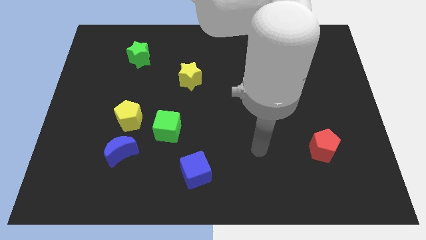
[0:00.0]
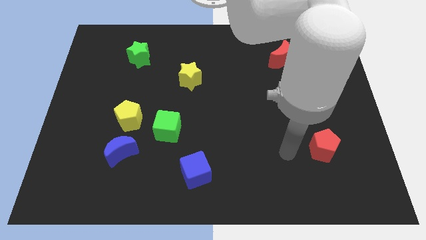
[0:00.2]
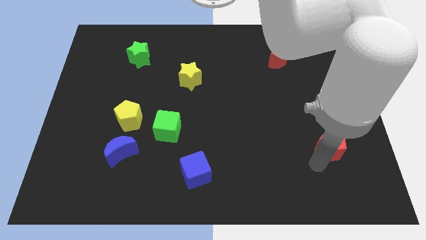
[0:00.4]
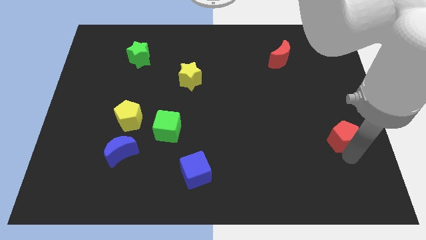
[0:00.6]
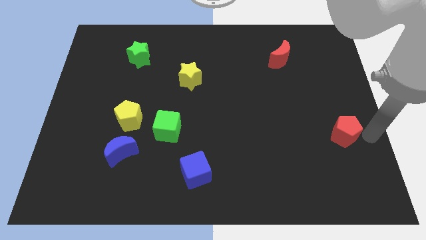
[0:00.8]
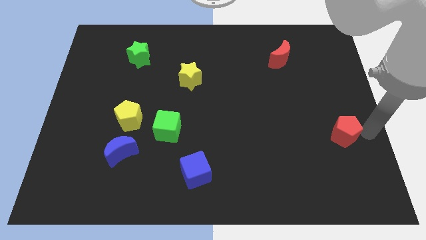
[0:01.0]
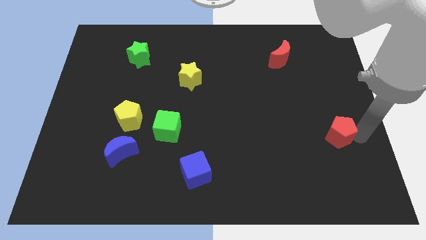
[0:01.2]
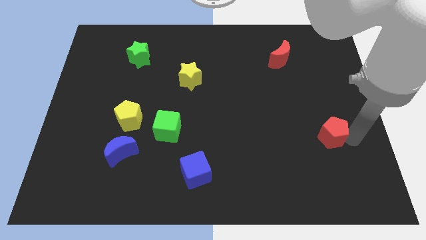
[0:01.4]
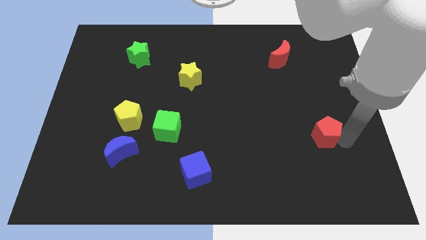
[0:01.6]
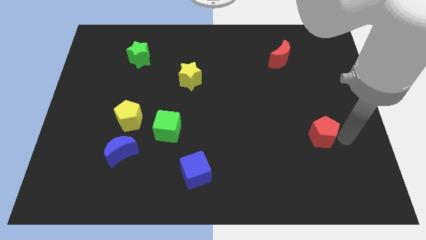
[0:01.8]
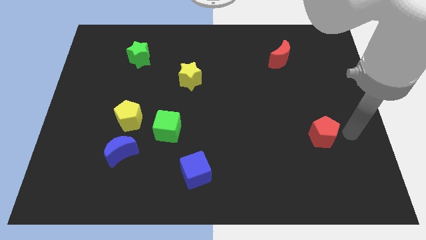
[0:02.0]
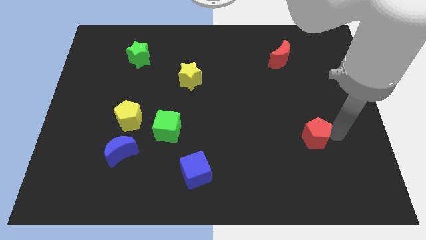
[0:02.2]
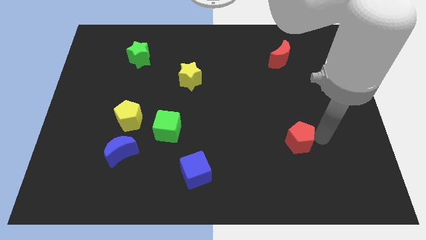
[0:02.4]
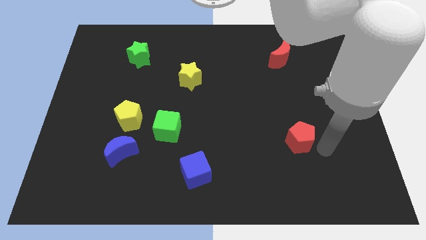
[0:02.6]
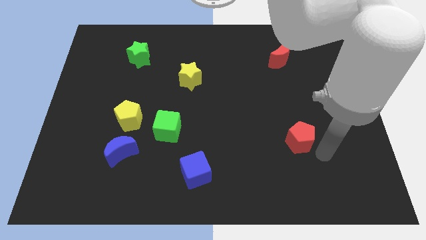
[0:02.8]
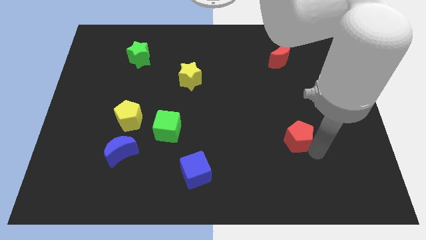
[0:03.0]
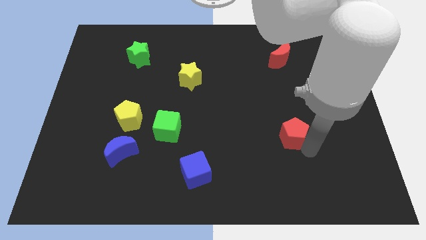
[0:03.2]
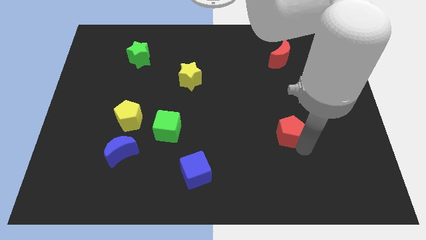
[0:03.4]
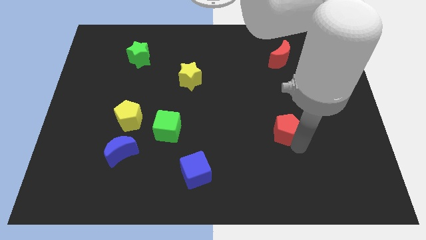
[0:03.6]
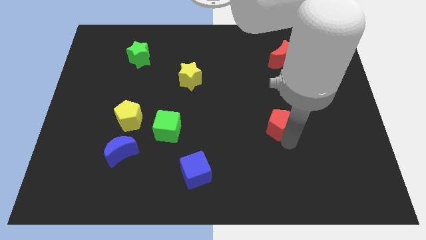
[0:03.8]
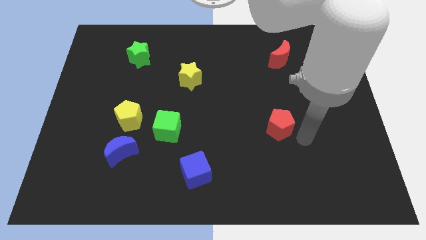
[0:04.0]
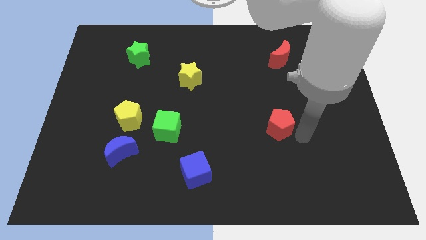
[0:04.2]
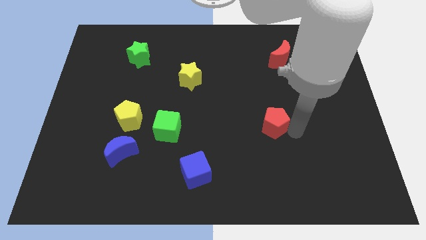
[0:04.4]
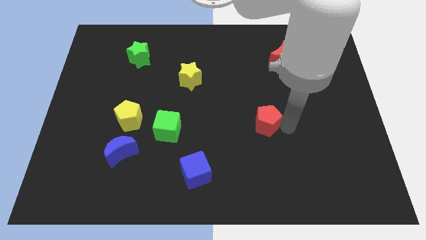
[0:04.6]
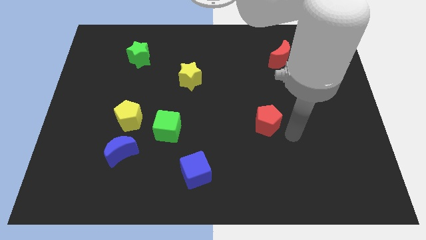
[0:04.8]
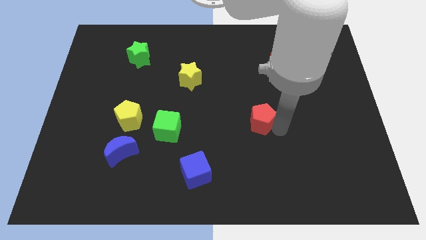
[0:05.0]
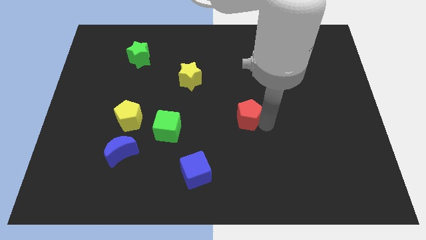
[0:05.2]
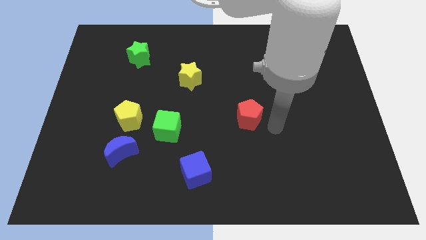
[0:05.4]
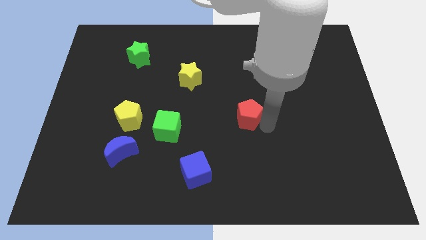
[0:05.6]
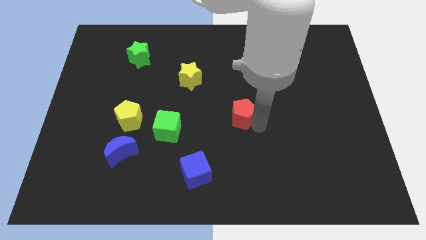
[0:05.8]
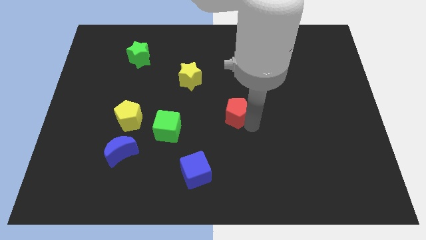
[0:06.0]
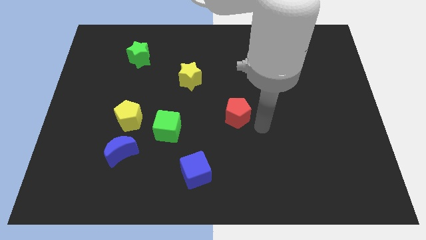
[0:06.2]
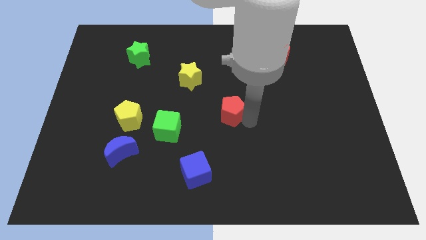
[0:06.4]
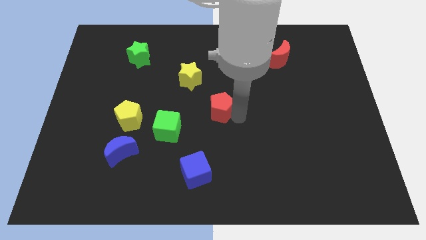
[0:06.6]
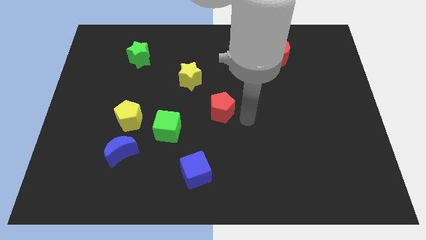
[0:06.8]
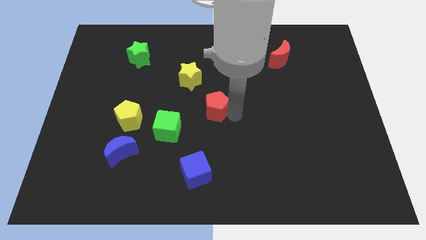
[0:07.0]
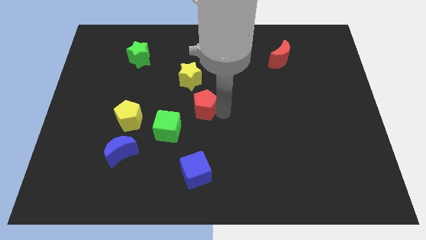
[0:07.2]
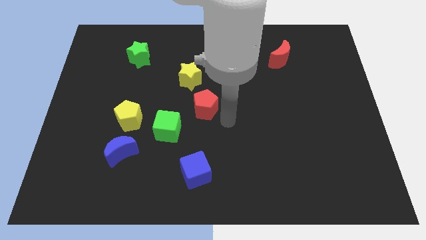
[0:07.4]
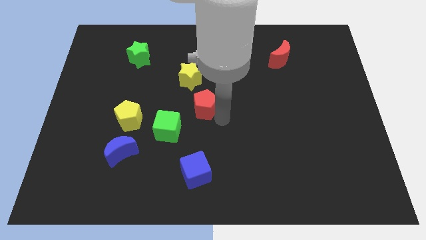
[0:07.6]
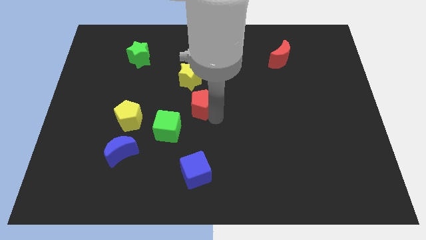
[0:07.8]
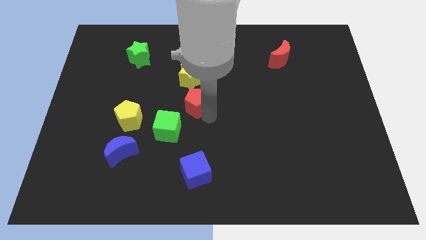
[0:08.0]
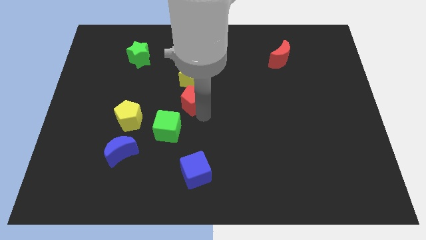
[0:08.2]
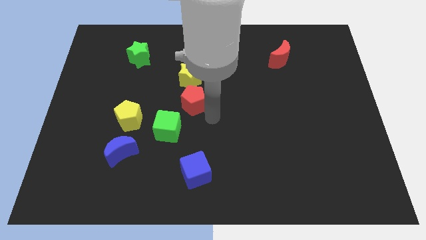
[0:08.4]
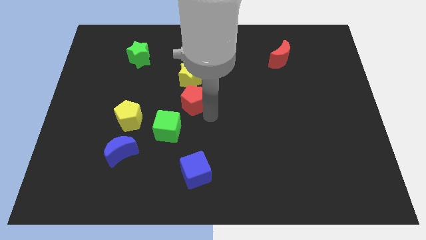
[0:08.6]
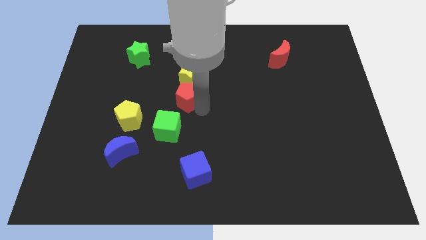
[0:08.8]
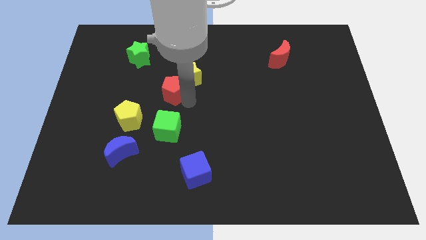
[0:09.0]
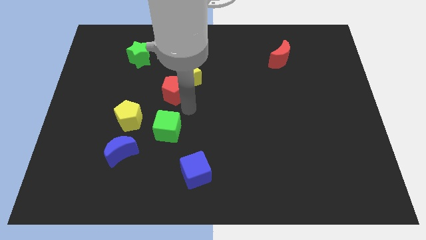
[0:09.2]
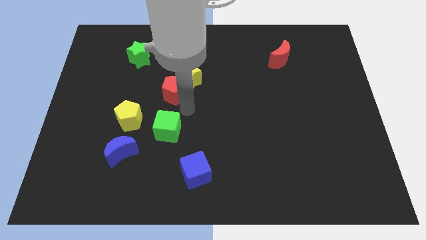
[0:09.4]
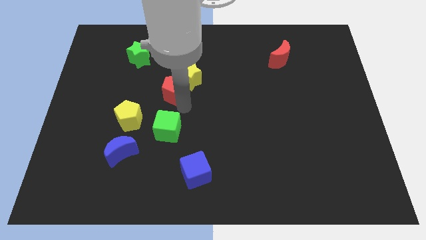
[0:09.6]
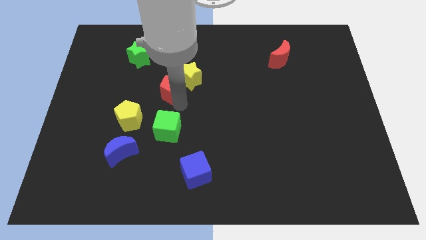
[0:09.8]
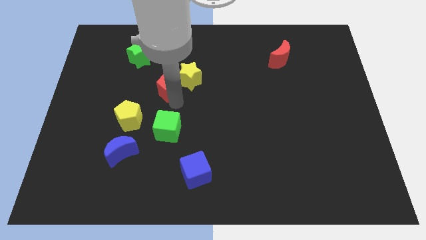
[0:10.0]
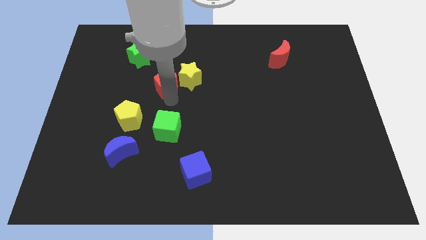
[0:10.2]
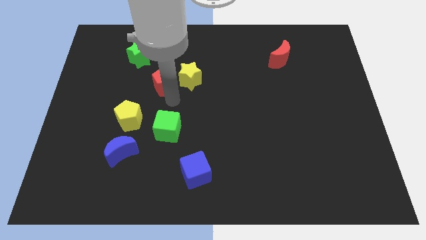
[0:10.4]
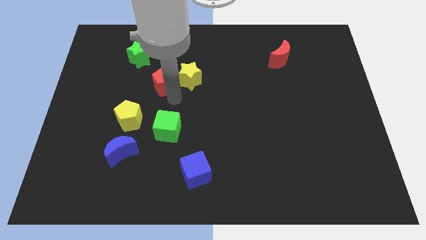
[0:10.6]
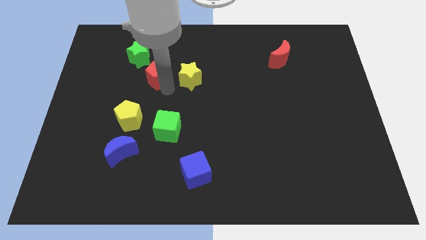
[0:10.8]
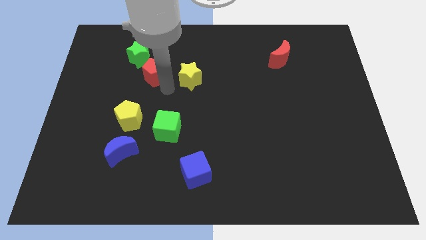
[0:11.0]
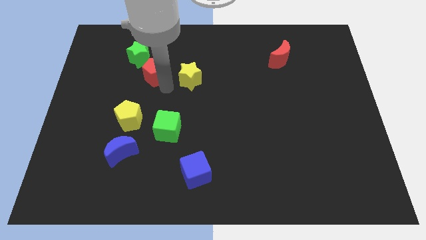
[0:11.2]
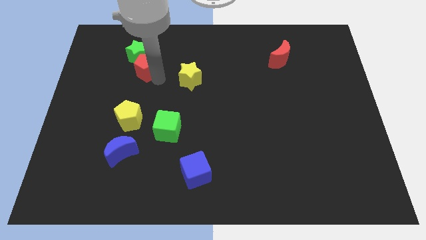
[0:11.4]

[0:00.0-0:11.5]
move the red pentagon towards the green star
